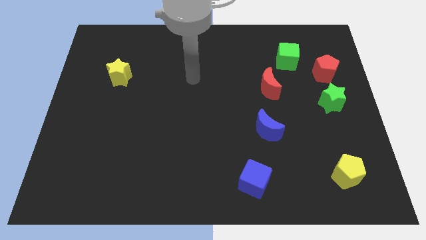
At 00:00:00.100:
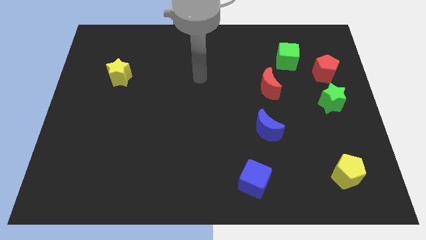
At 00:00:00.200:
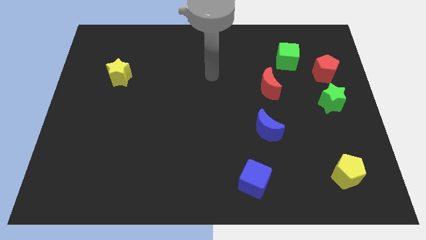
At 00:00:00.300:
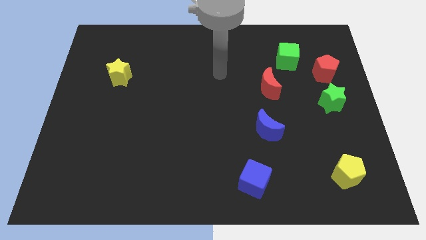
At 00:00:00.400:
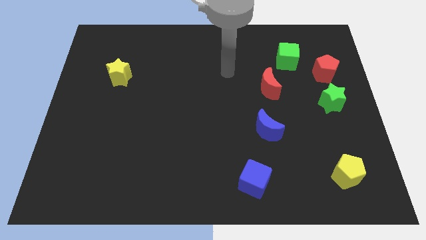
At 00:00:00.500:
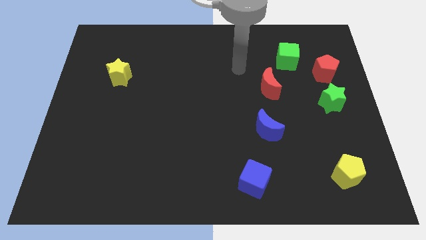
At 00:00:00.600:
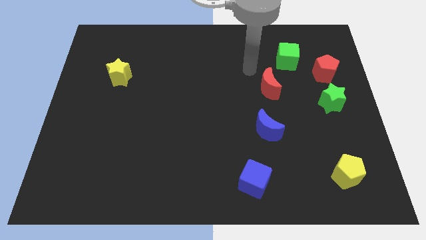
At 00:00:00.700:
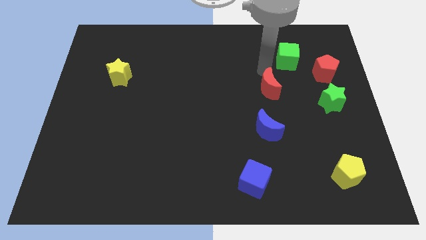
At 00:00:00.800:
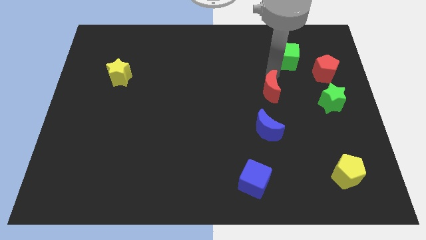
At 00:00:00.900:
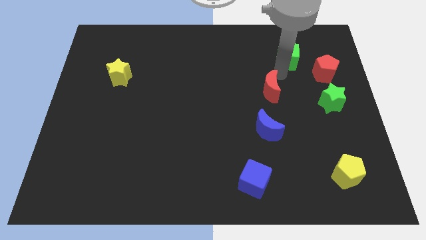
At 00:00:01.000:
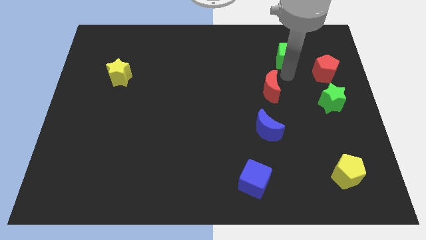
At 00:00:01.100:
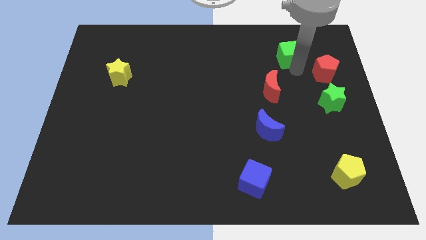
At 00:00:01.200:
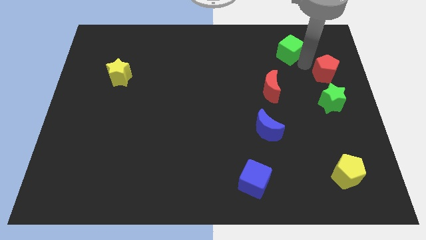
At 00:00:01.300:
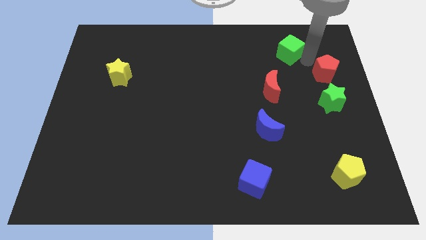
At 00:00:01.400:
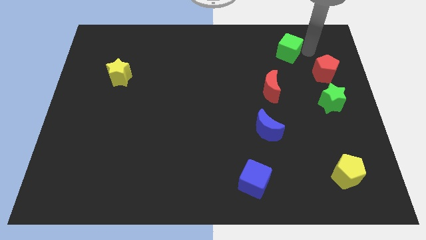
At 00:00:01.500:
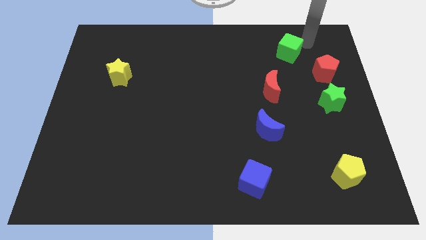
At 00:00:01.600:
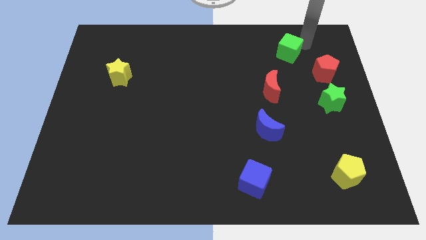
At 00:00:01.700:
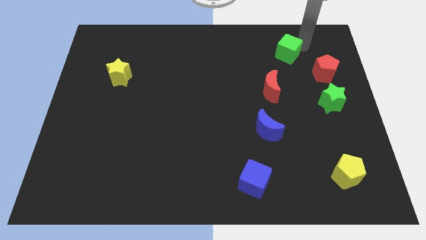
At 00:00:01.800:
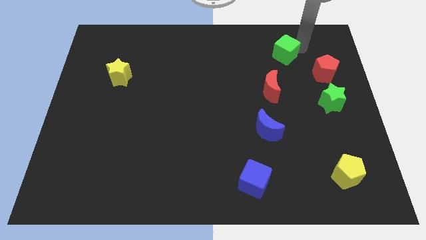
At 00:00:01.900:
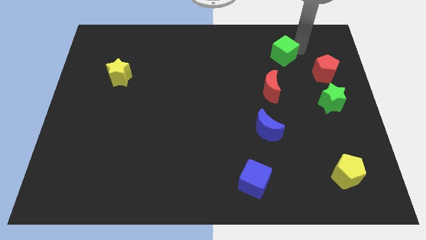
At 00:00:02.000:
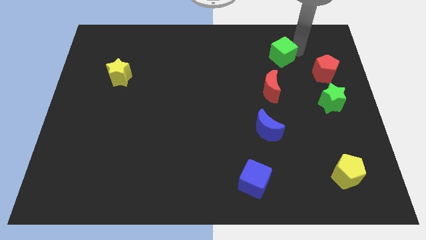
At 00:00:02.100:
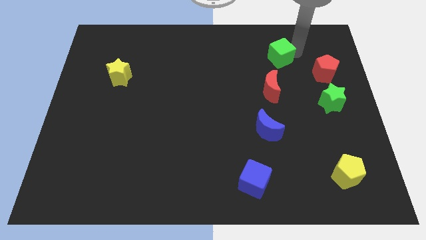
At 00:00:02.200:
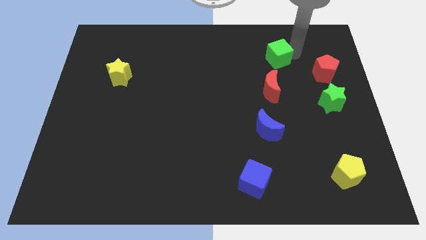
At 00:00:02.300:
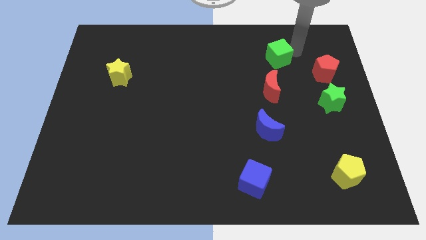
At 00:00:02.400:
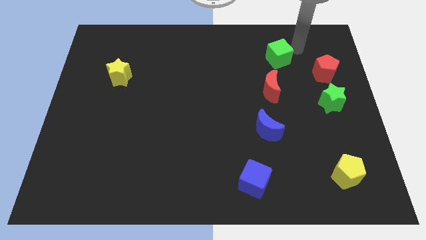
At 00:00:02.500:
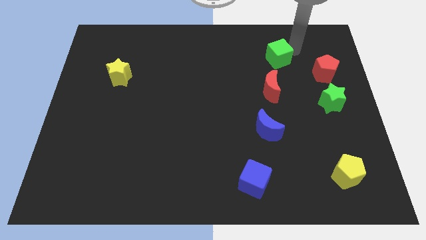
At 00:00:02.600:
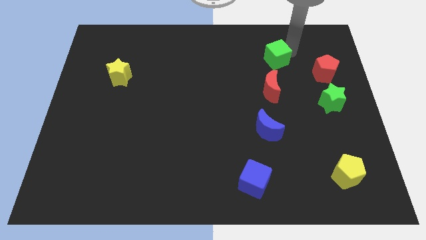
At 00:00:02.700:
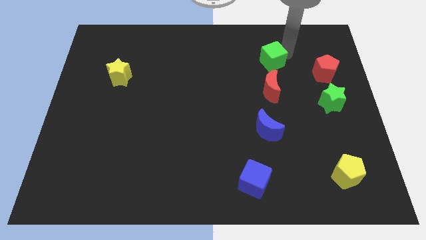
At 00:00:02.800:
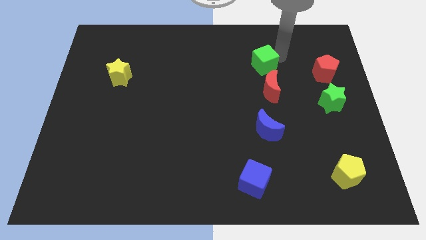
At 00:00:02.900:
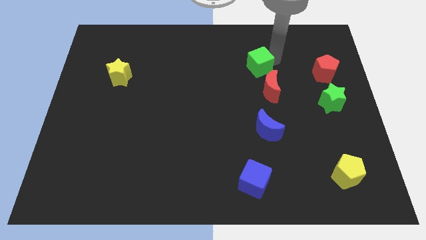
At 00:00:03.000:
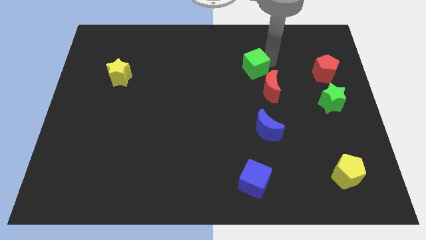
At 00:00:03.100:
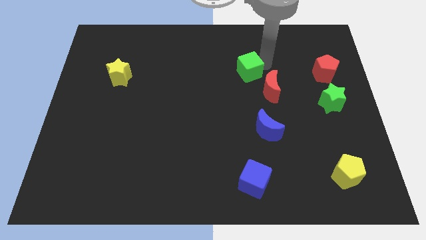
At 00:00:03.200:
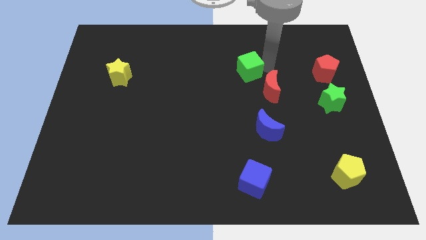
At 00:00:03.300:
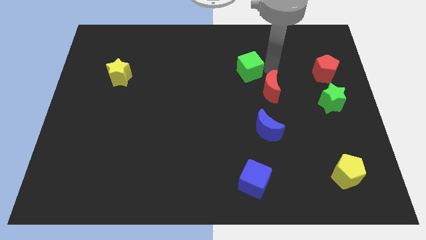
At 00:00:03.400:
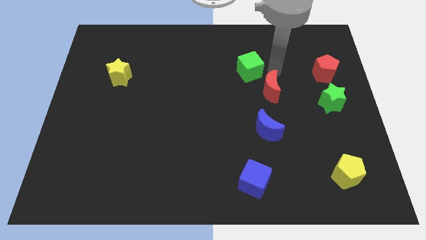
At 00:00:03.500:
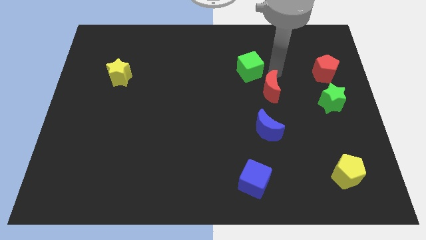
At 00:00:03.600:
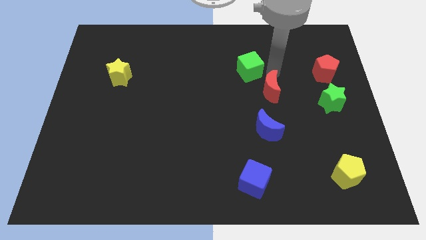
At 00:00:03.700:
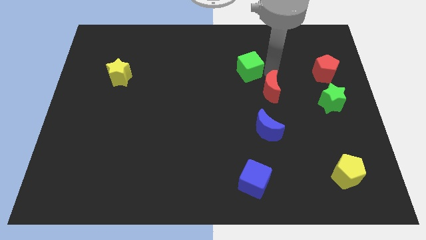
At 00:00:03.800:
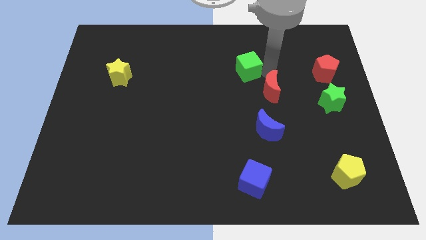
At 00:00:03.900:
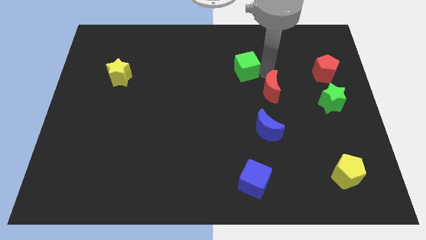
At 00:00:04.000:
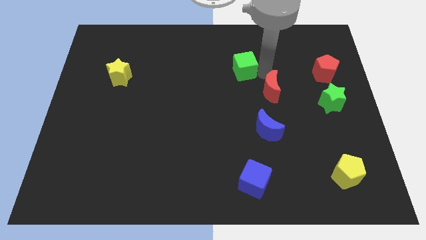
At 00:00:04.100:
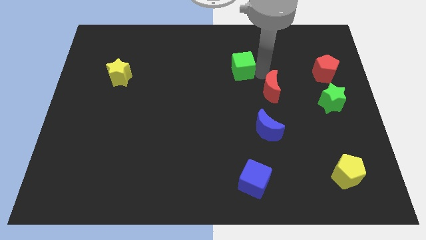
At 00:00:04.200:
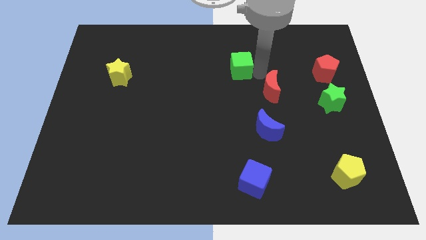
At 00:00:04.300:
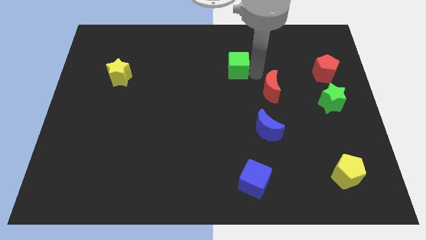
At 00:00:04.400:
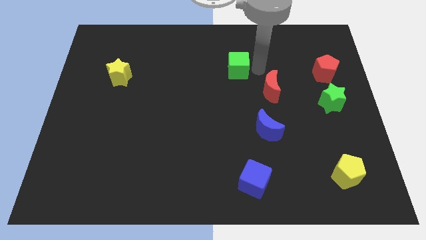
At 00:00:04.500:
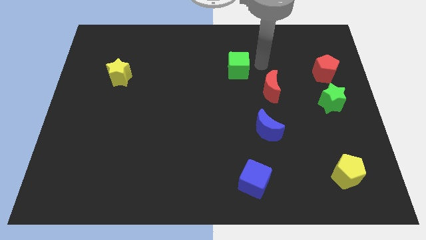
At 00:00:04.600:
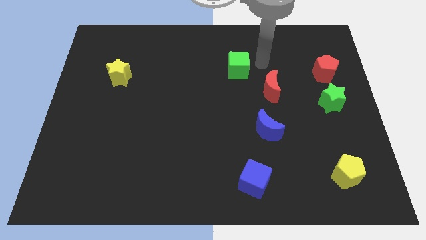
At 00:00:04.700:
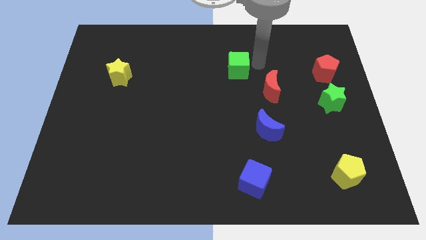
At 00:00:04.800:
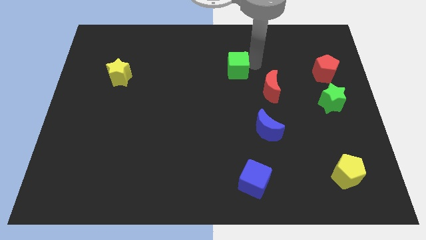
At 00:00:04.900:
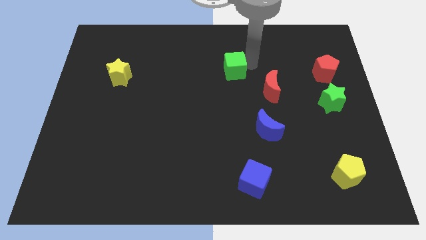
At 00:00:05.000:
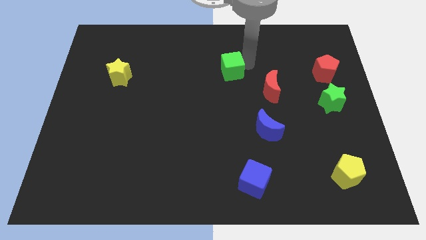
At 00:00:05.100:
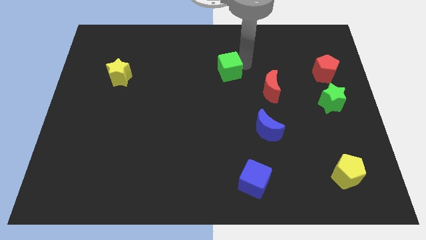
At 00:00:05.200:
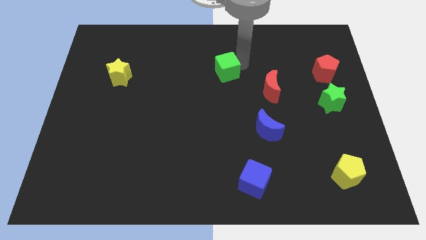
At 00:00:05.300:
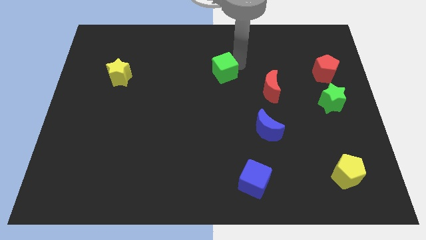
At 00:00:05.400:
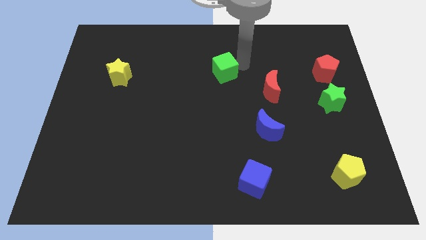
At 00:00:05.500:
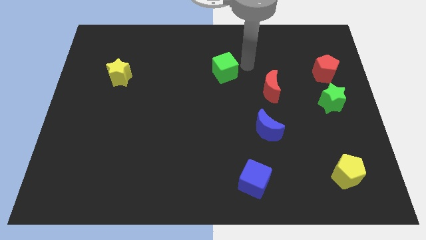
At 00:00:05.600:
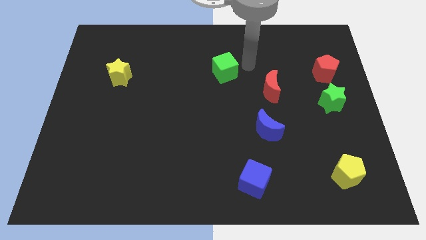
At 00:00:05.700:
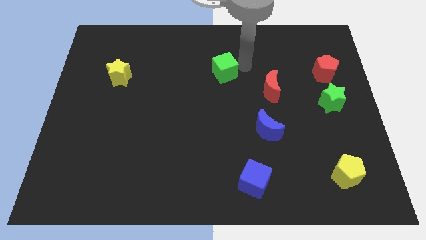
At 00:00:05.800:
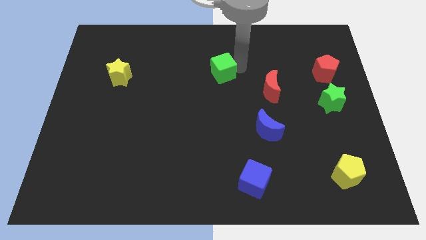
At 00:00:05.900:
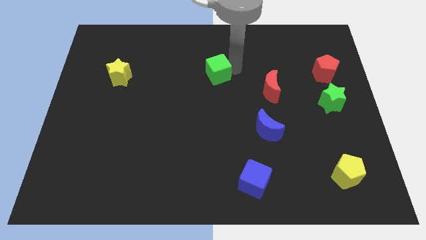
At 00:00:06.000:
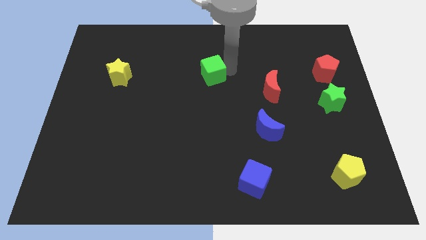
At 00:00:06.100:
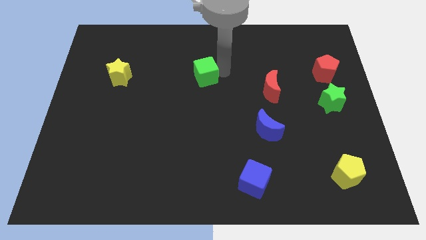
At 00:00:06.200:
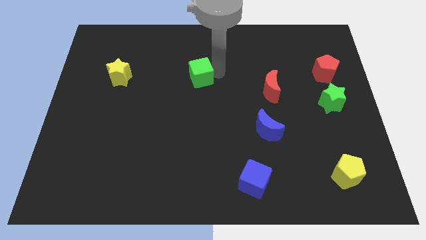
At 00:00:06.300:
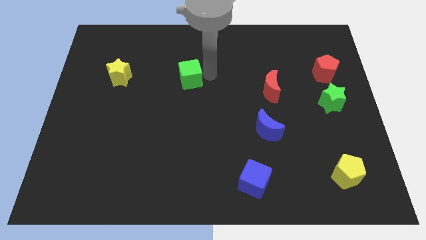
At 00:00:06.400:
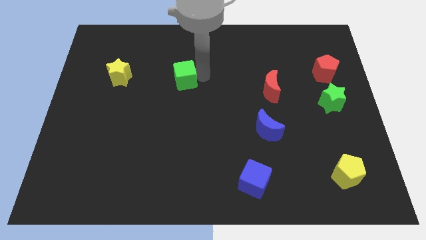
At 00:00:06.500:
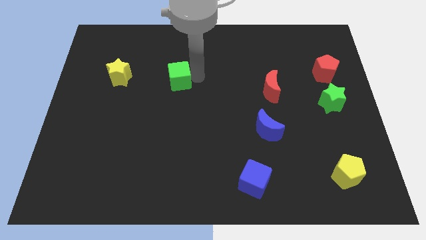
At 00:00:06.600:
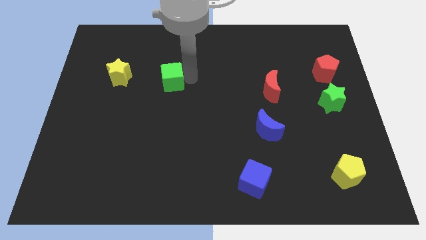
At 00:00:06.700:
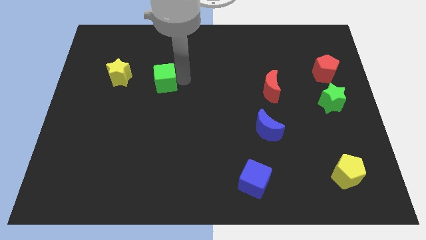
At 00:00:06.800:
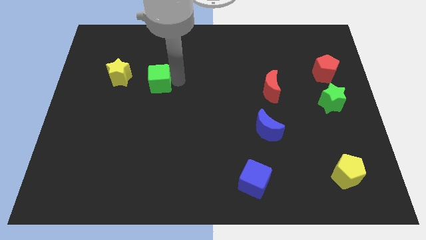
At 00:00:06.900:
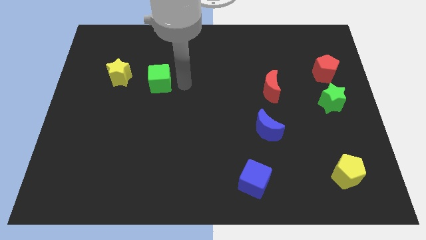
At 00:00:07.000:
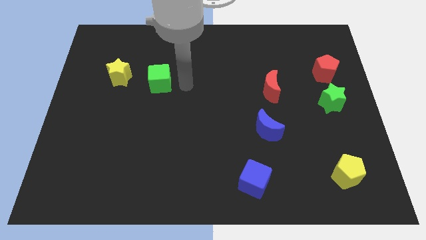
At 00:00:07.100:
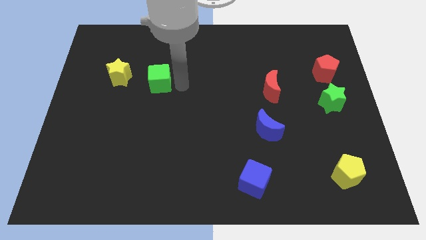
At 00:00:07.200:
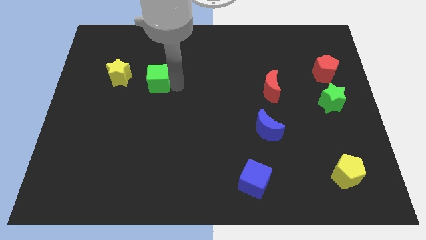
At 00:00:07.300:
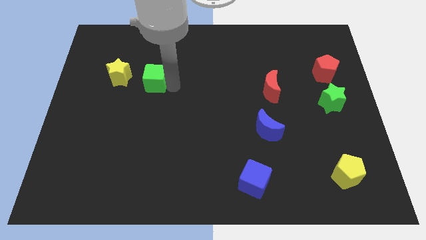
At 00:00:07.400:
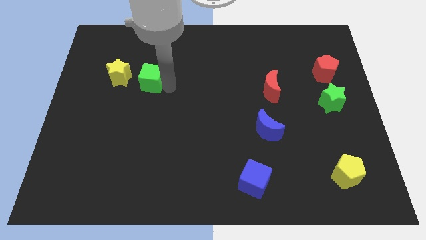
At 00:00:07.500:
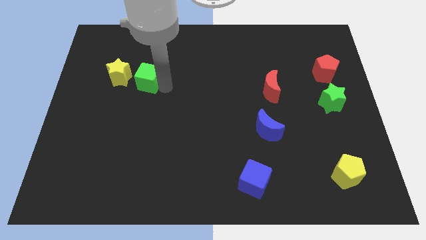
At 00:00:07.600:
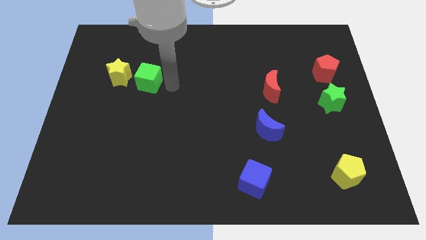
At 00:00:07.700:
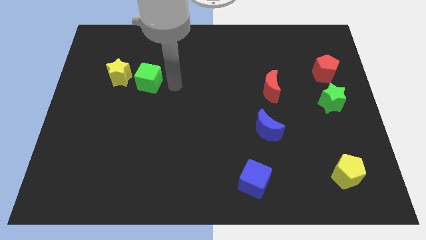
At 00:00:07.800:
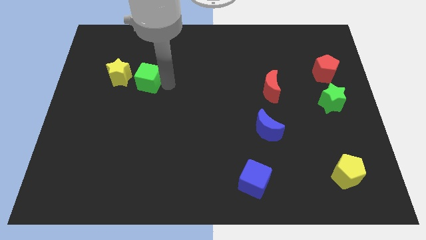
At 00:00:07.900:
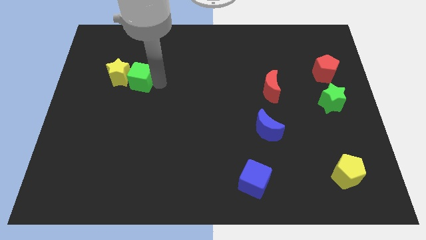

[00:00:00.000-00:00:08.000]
slide the green cube close to the yellow star
